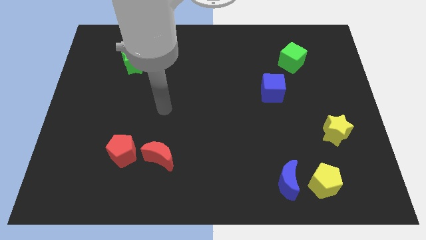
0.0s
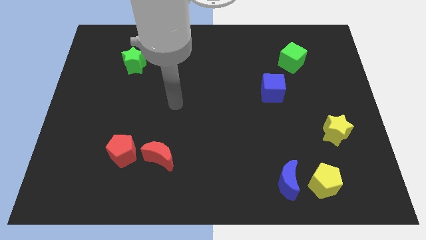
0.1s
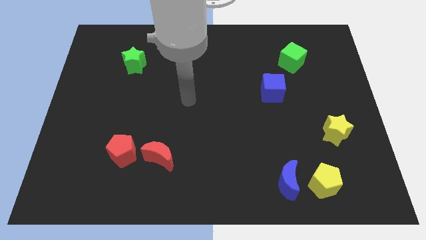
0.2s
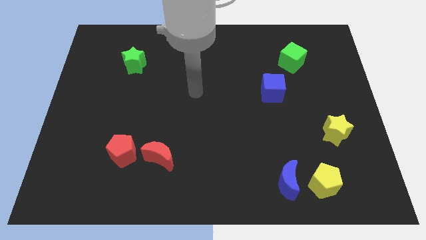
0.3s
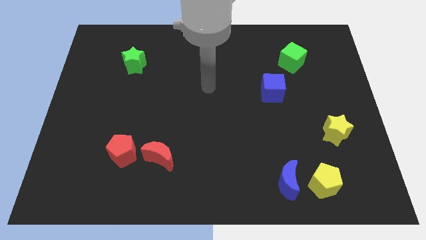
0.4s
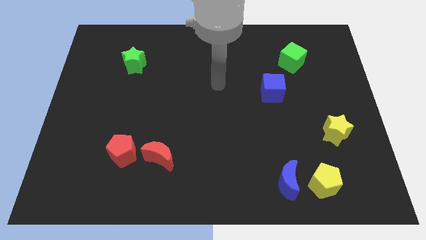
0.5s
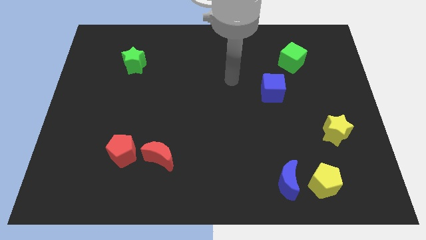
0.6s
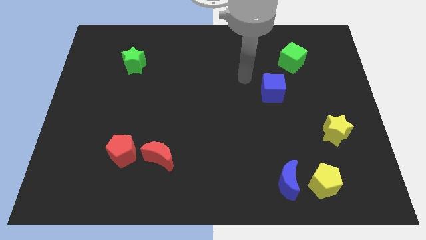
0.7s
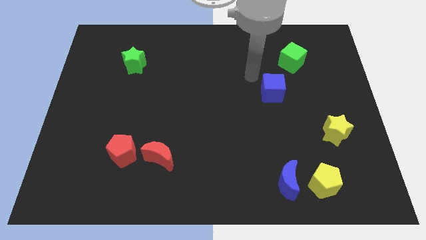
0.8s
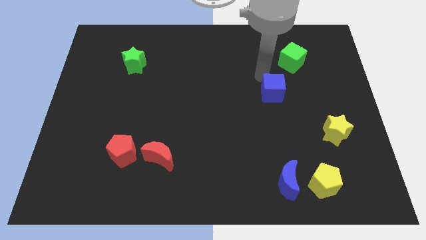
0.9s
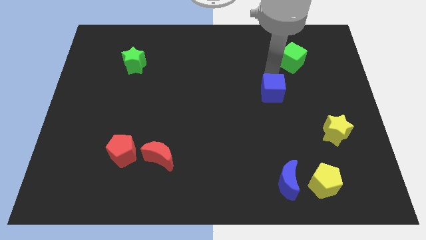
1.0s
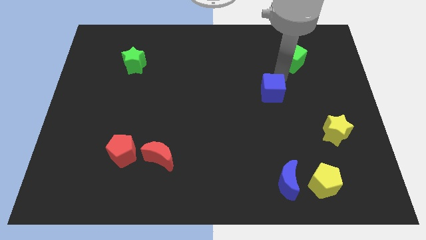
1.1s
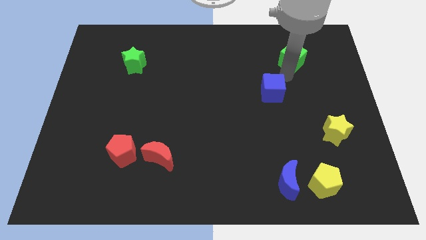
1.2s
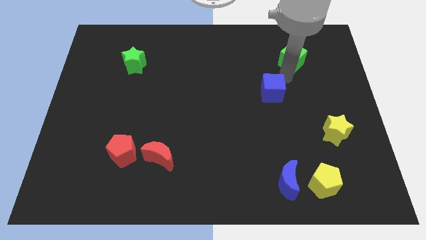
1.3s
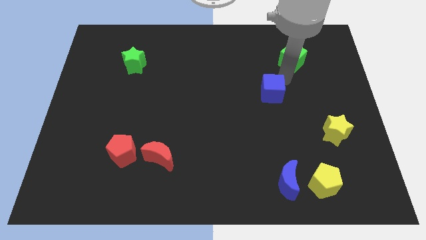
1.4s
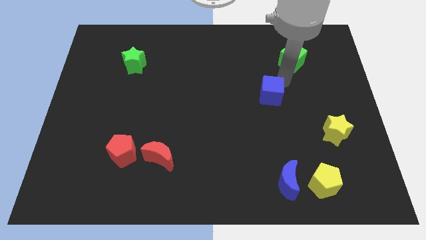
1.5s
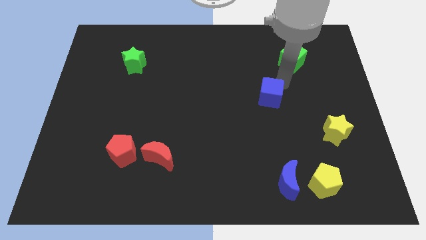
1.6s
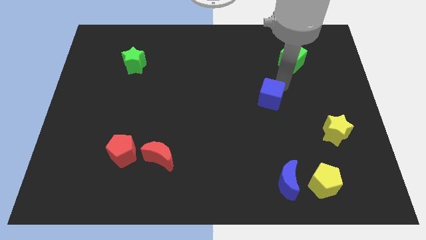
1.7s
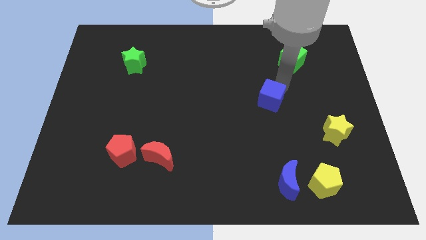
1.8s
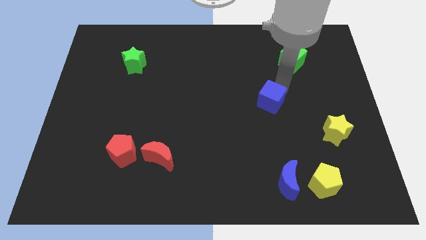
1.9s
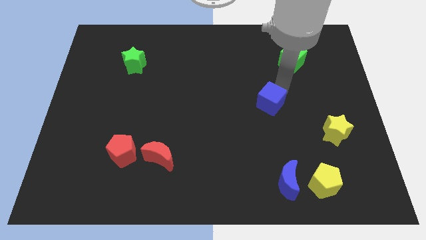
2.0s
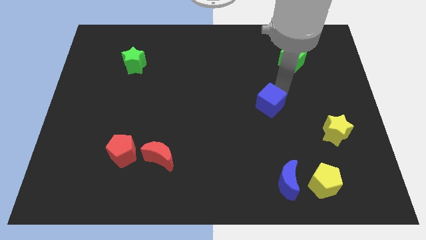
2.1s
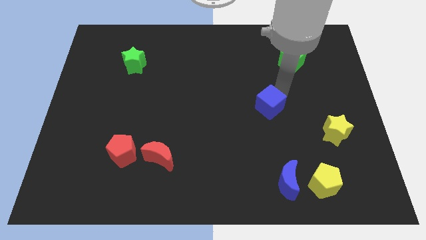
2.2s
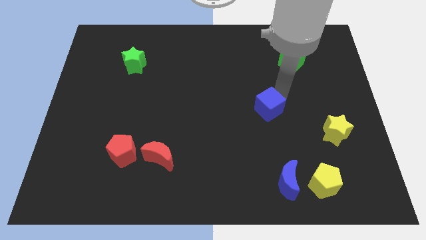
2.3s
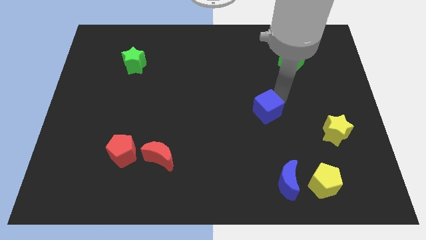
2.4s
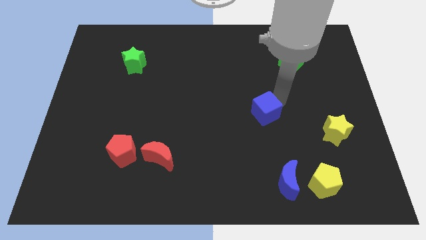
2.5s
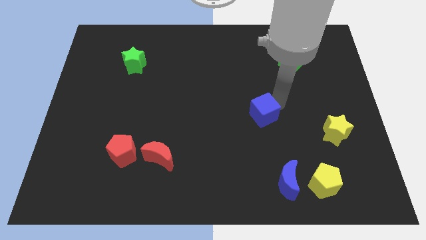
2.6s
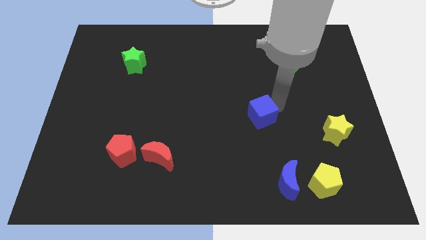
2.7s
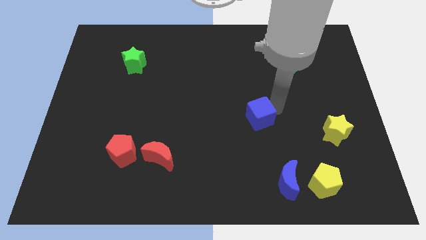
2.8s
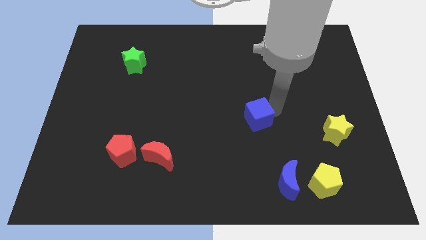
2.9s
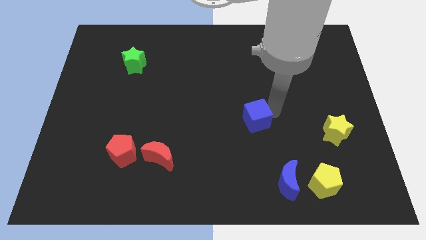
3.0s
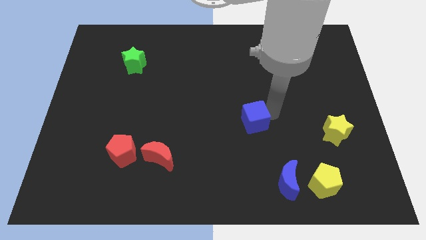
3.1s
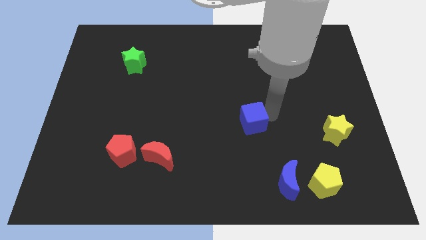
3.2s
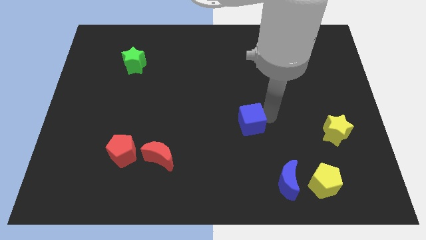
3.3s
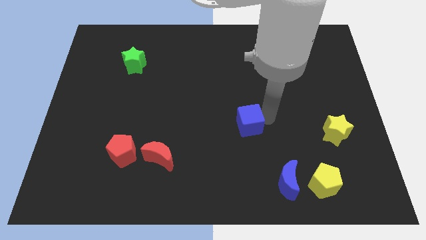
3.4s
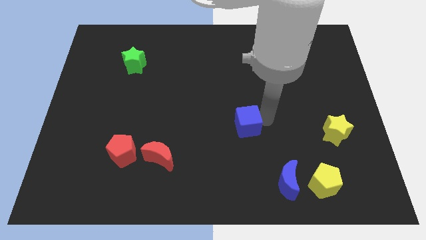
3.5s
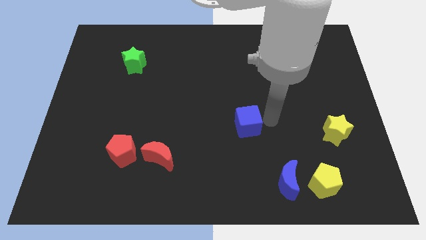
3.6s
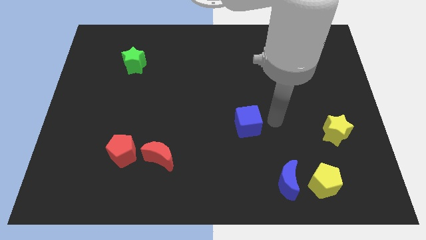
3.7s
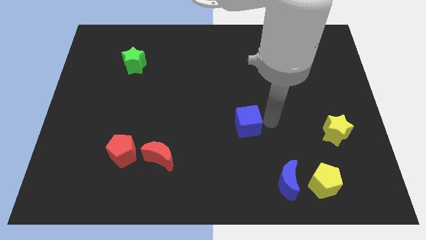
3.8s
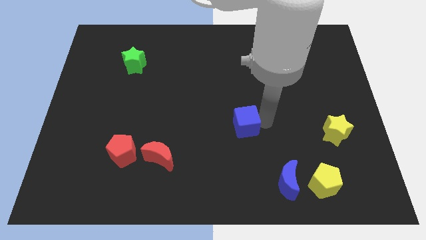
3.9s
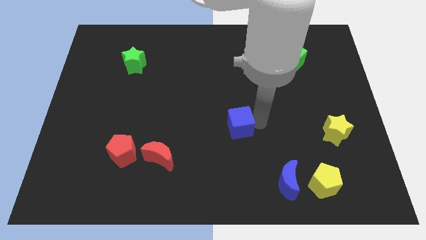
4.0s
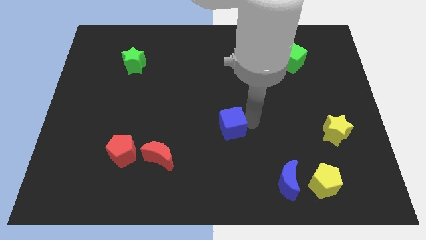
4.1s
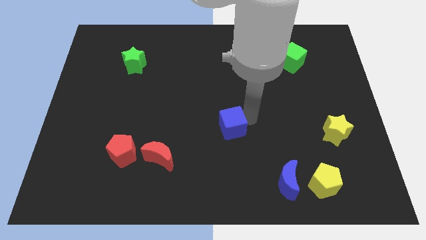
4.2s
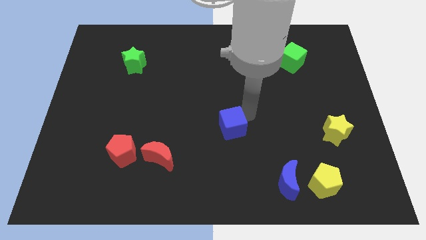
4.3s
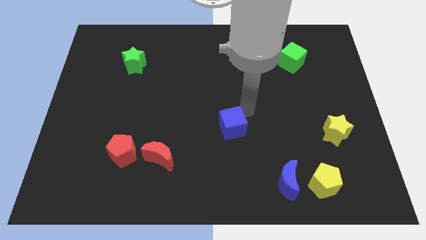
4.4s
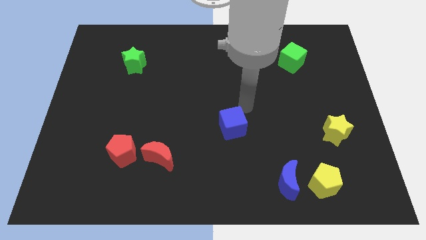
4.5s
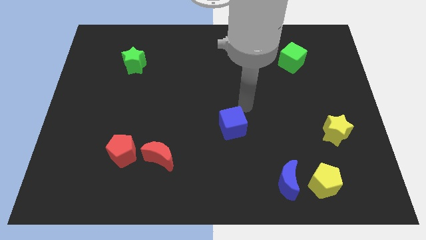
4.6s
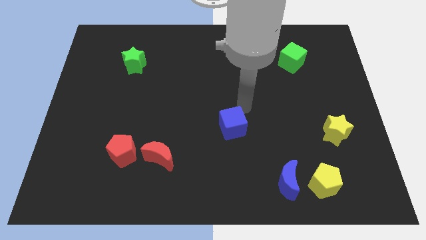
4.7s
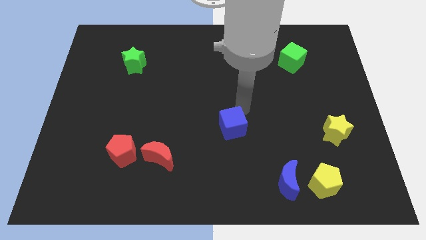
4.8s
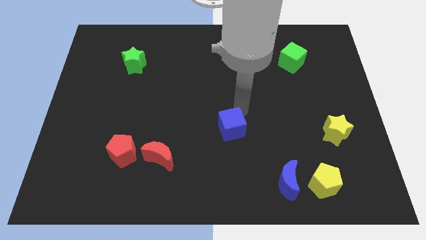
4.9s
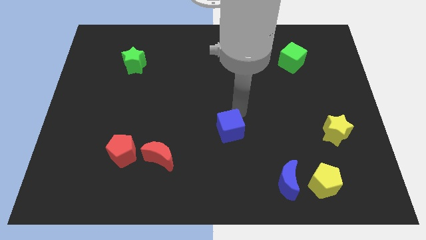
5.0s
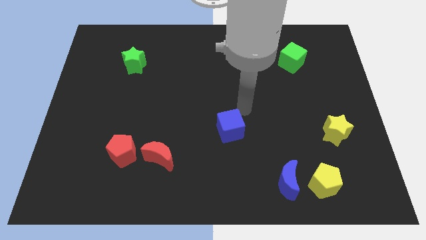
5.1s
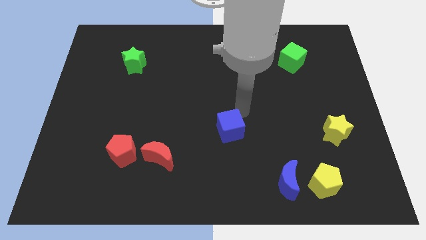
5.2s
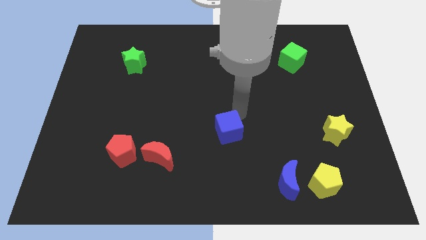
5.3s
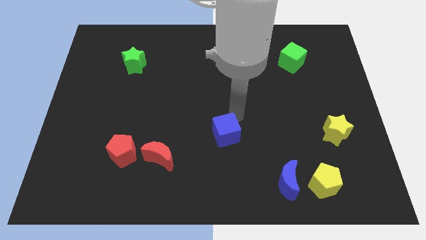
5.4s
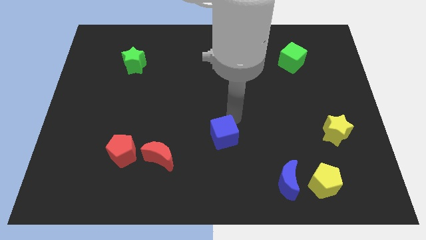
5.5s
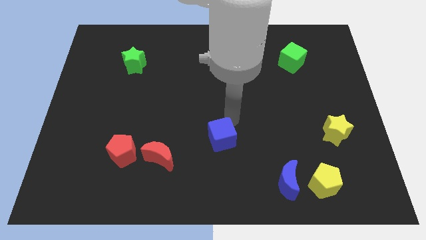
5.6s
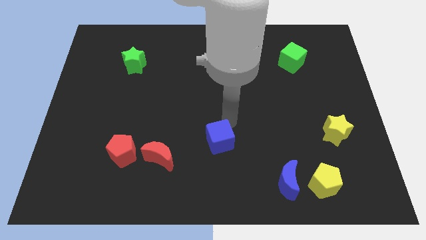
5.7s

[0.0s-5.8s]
slide the blue cube to the right side of the red moon

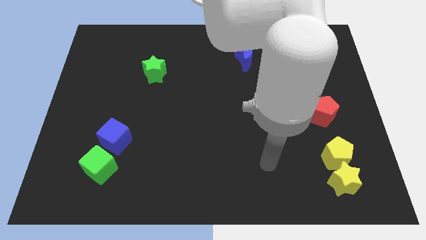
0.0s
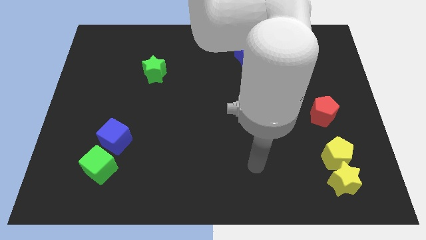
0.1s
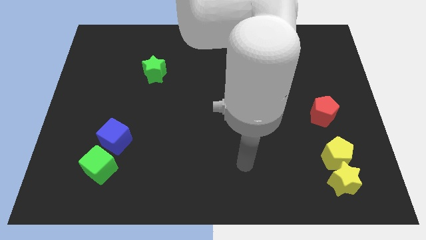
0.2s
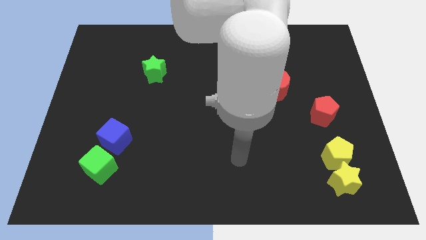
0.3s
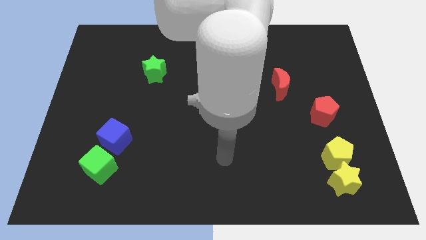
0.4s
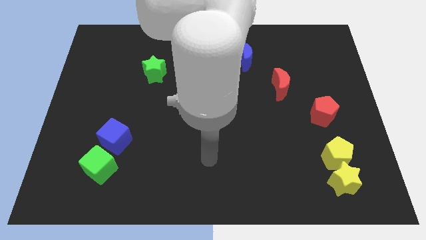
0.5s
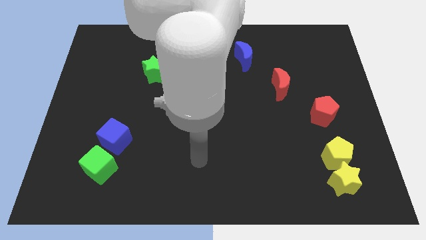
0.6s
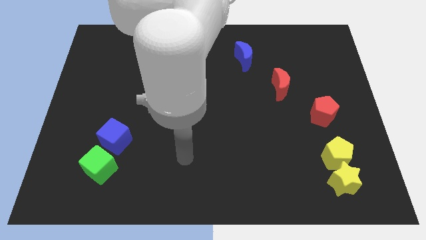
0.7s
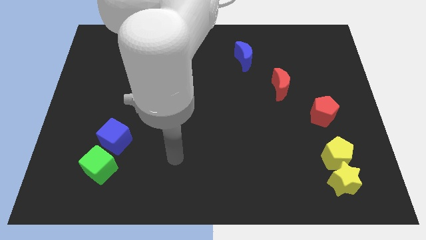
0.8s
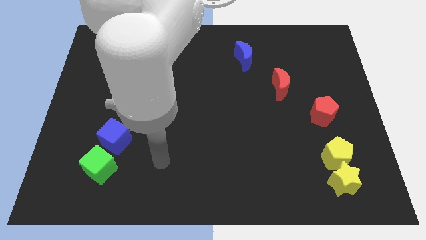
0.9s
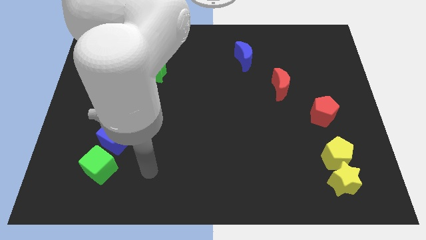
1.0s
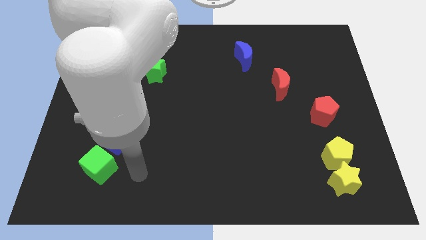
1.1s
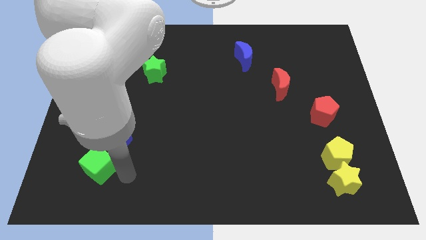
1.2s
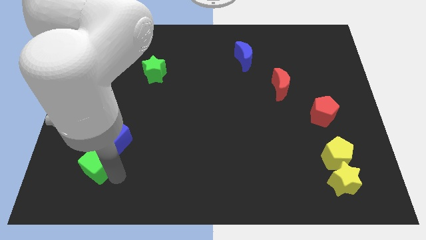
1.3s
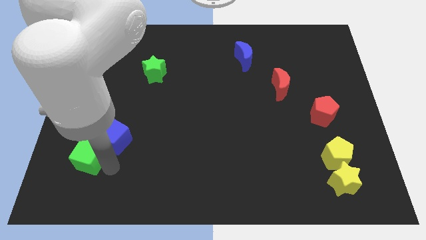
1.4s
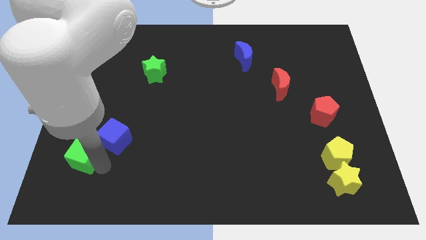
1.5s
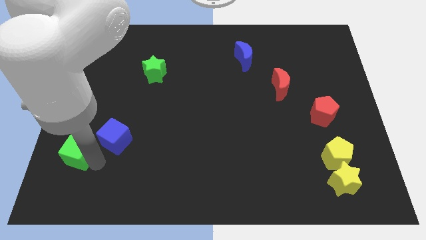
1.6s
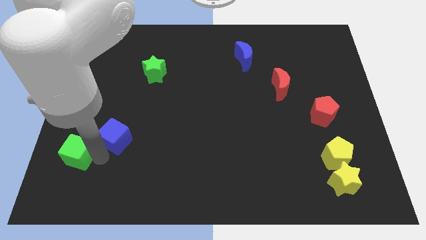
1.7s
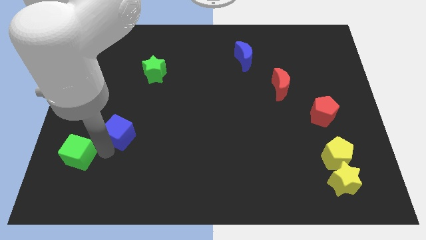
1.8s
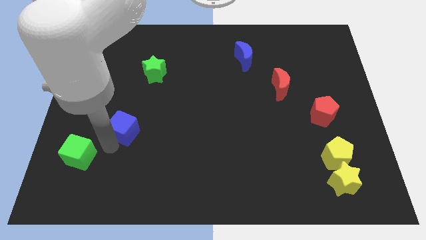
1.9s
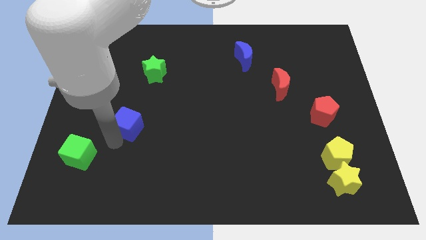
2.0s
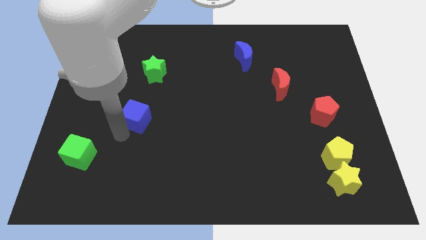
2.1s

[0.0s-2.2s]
slide the blue cube to the bottom side of the green star
